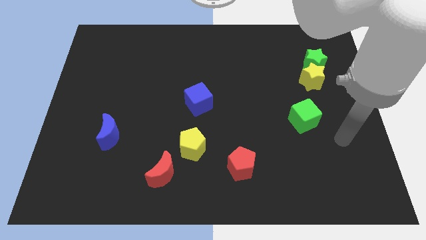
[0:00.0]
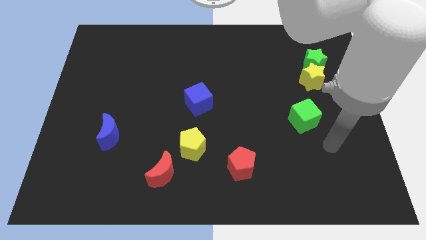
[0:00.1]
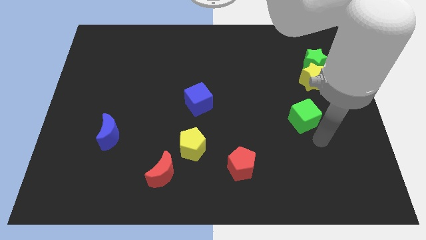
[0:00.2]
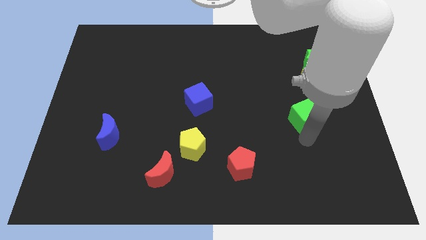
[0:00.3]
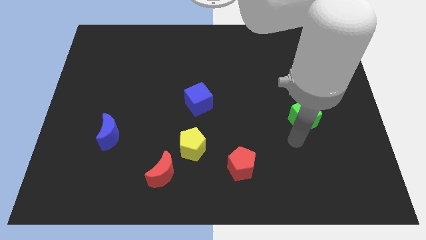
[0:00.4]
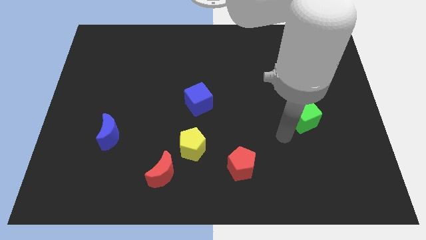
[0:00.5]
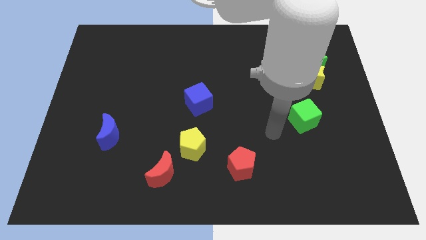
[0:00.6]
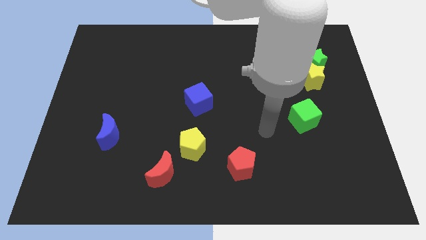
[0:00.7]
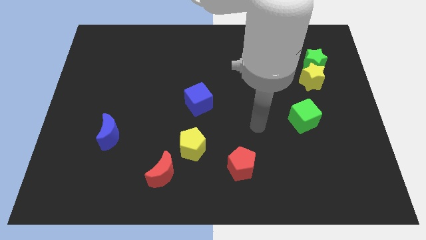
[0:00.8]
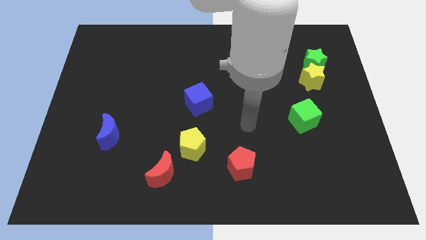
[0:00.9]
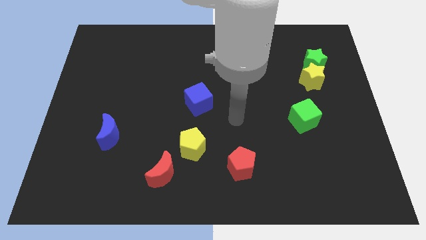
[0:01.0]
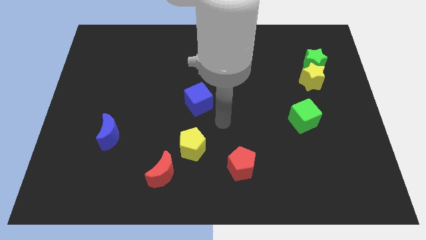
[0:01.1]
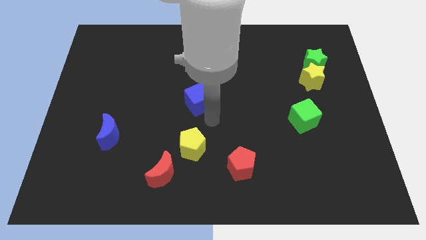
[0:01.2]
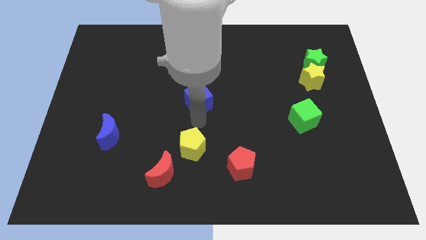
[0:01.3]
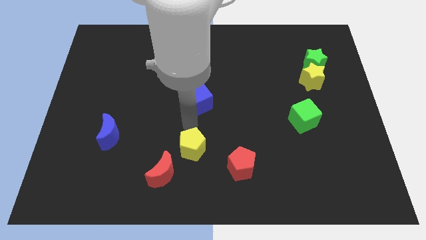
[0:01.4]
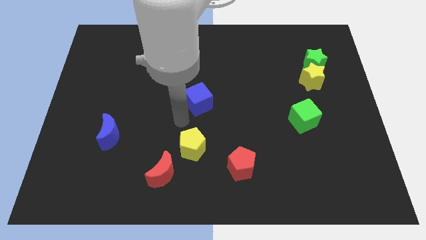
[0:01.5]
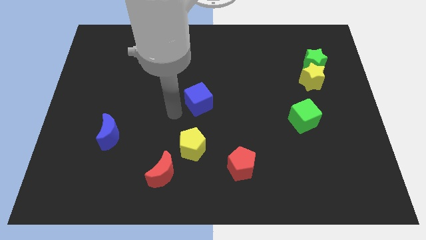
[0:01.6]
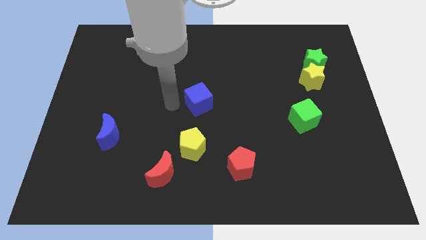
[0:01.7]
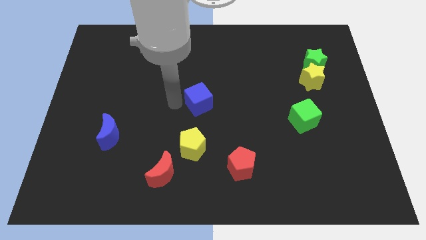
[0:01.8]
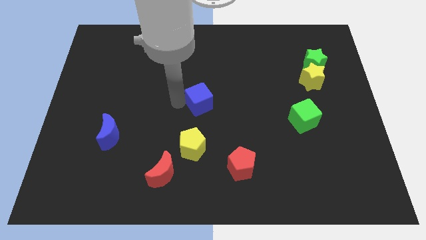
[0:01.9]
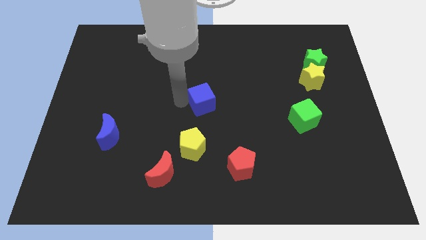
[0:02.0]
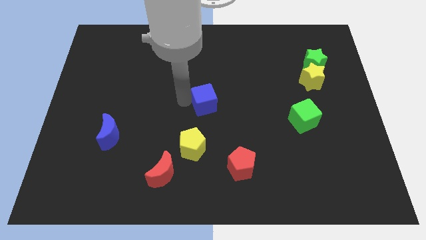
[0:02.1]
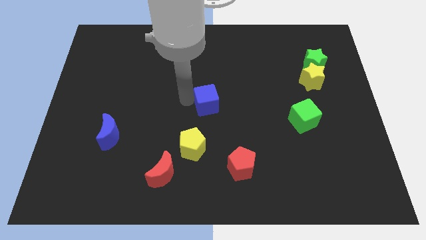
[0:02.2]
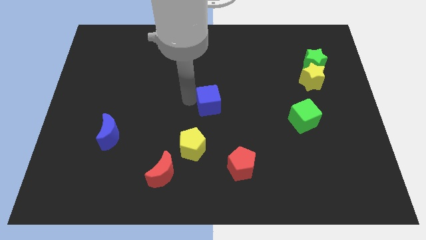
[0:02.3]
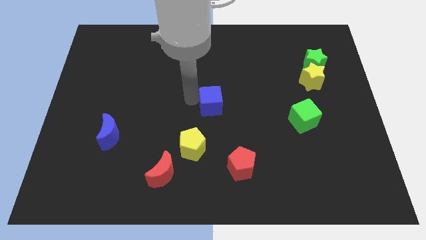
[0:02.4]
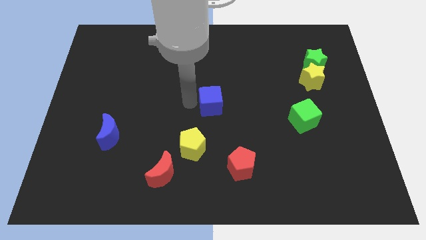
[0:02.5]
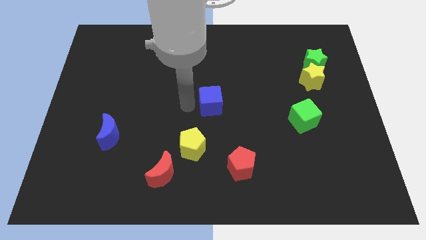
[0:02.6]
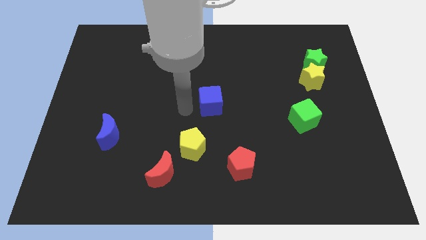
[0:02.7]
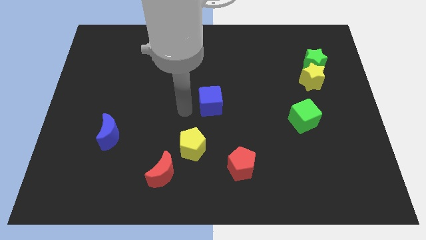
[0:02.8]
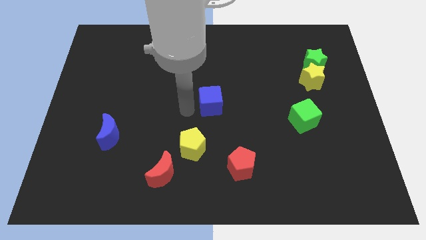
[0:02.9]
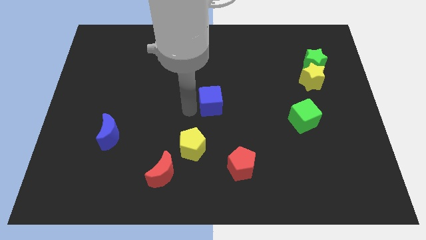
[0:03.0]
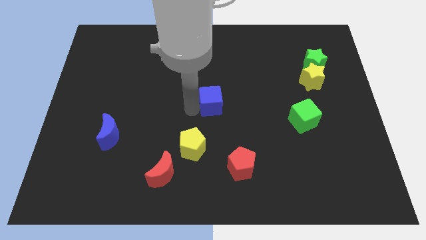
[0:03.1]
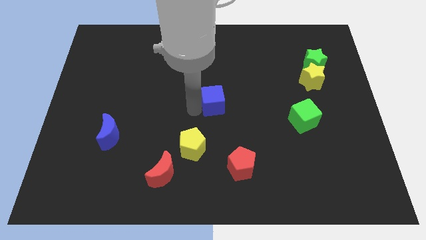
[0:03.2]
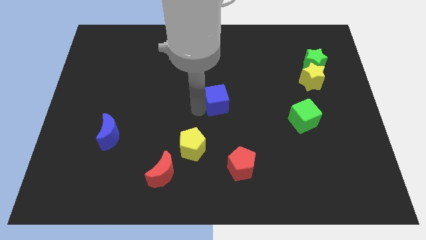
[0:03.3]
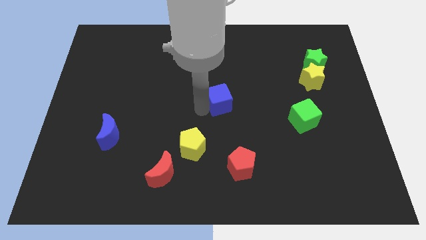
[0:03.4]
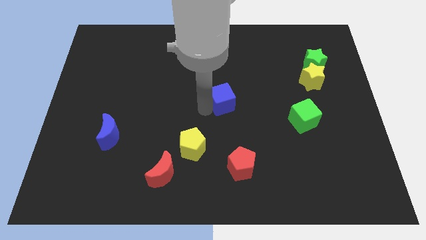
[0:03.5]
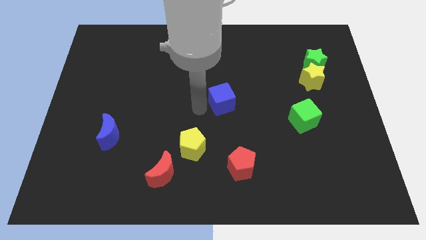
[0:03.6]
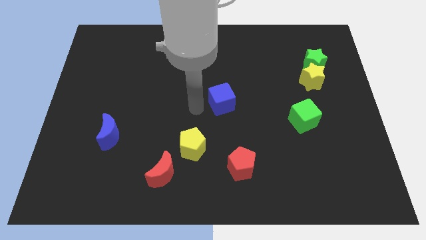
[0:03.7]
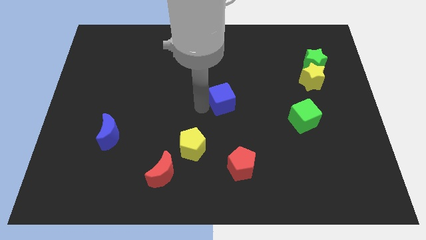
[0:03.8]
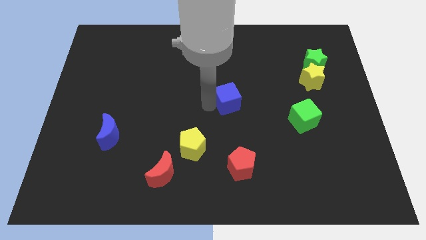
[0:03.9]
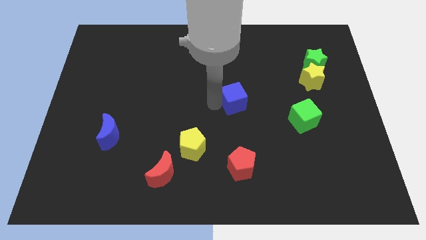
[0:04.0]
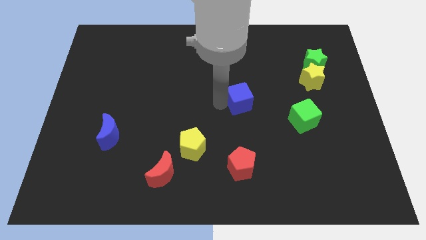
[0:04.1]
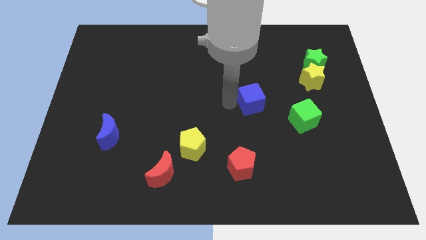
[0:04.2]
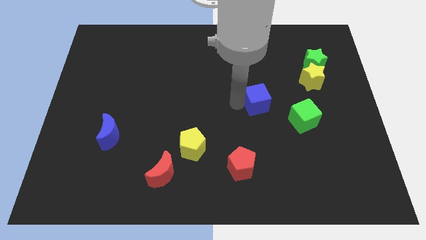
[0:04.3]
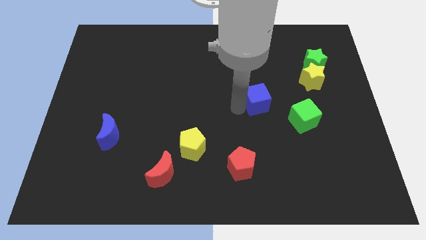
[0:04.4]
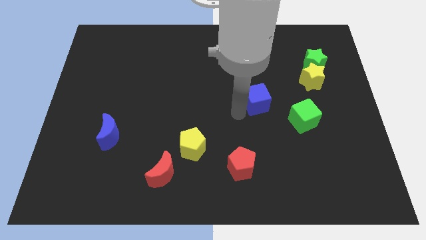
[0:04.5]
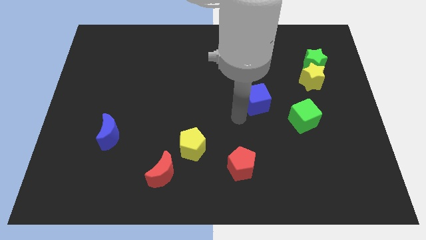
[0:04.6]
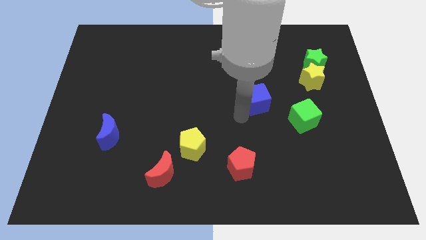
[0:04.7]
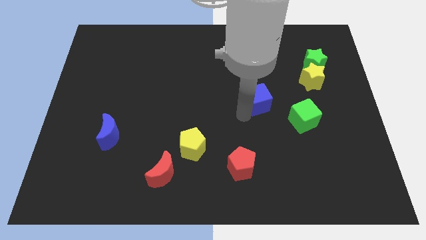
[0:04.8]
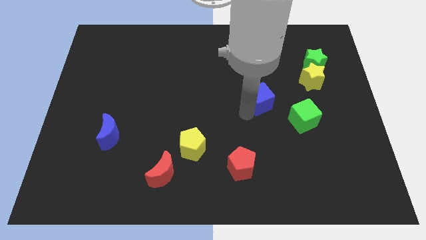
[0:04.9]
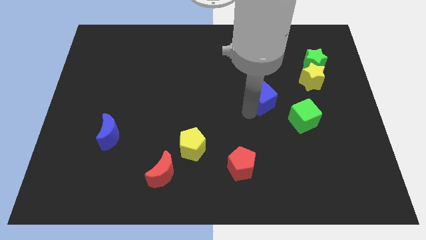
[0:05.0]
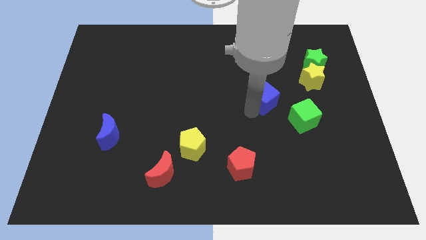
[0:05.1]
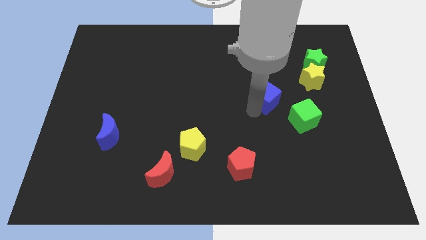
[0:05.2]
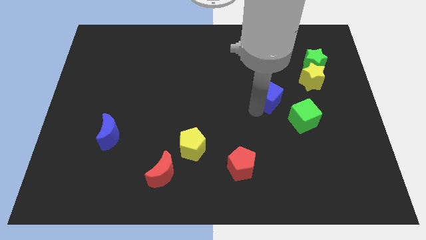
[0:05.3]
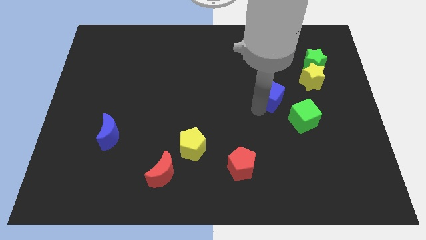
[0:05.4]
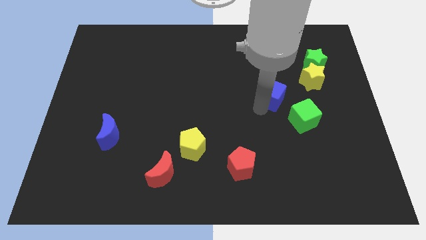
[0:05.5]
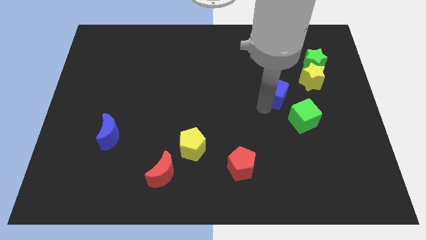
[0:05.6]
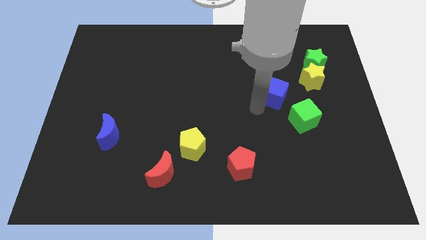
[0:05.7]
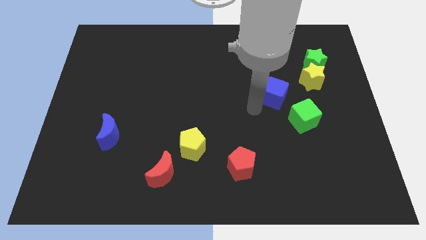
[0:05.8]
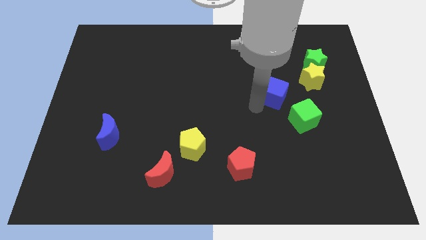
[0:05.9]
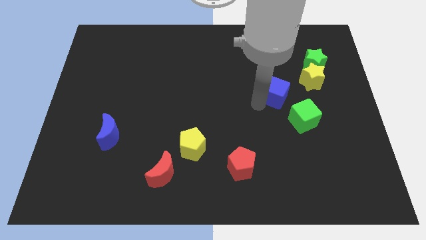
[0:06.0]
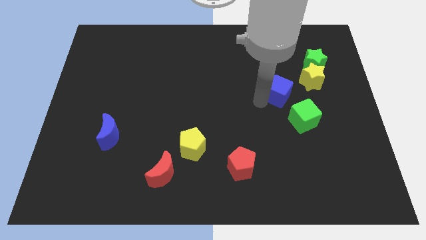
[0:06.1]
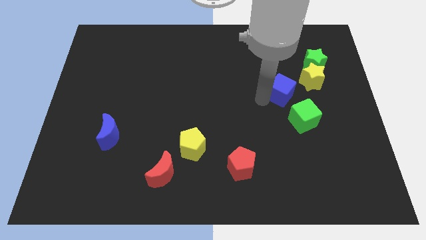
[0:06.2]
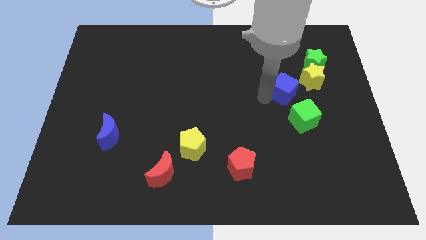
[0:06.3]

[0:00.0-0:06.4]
put the blue cube diagonally down and to the left of the green star

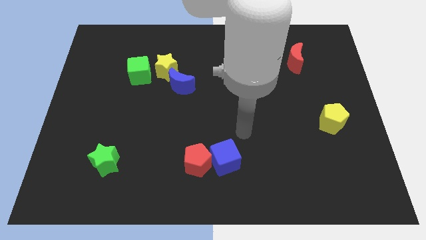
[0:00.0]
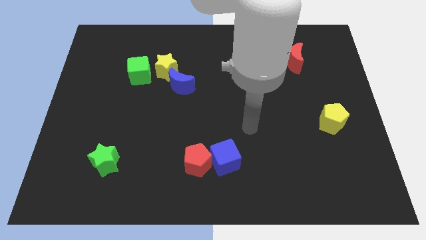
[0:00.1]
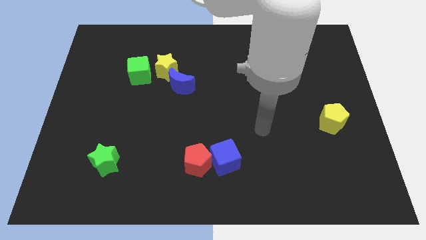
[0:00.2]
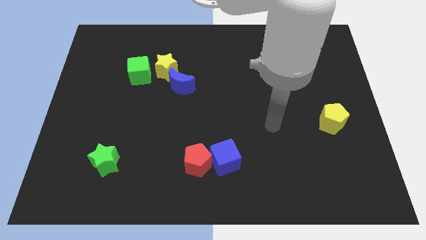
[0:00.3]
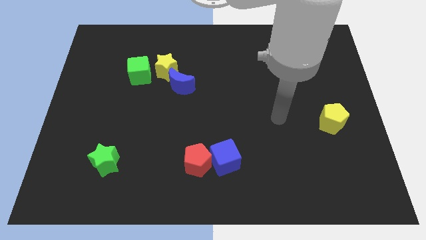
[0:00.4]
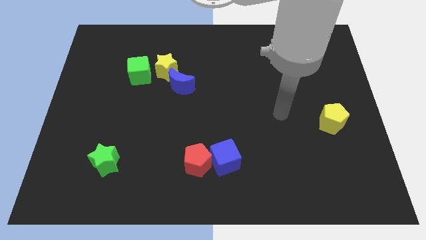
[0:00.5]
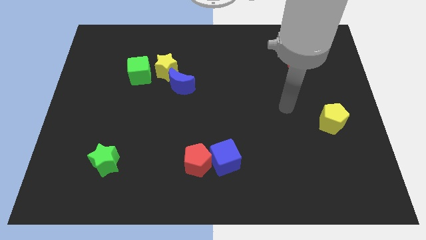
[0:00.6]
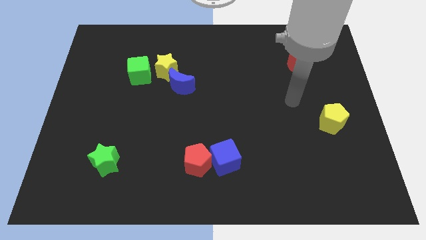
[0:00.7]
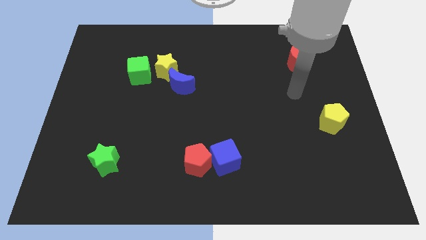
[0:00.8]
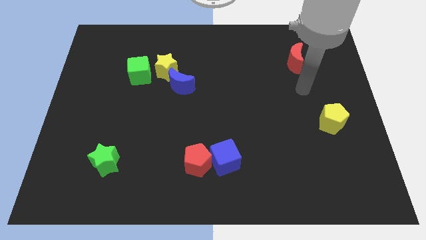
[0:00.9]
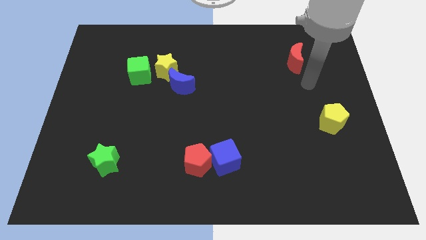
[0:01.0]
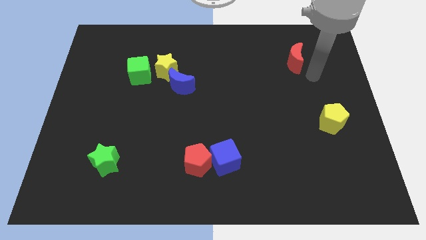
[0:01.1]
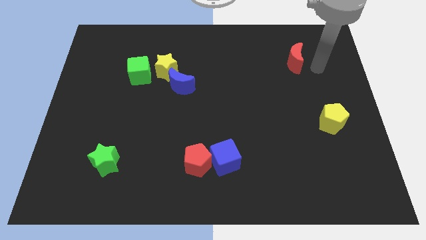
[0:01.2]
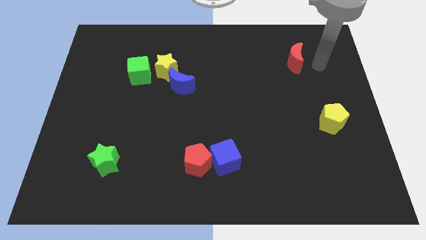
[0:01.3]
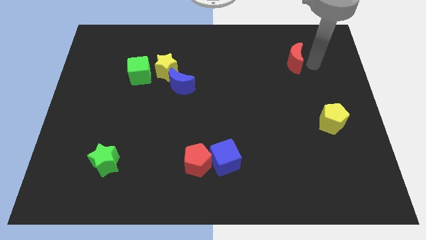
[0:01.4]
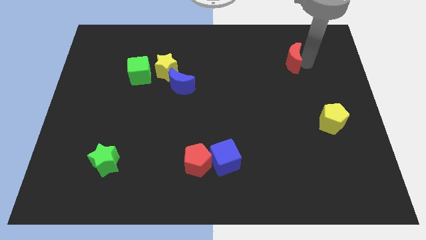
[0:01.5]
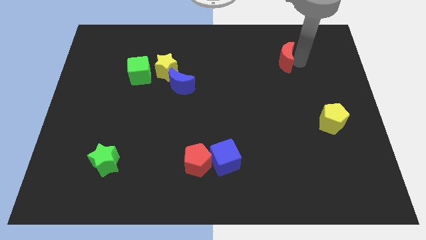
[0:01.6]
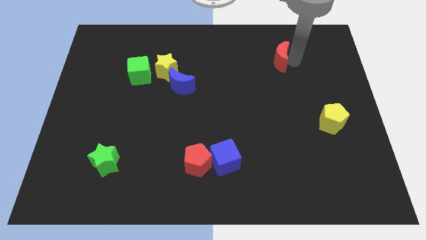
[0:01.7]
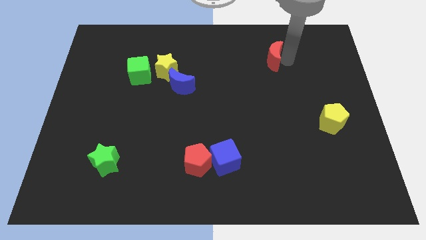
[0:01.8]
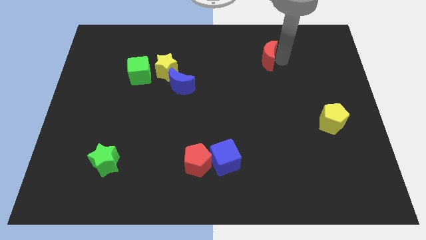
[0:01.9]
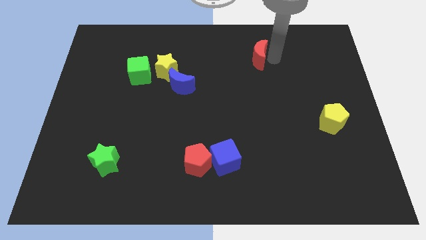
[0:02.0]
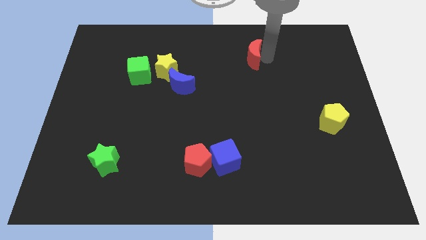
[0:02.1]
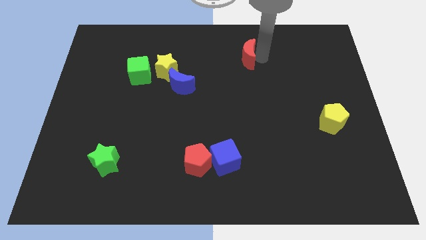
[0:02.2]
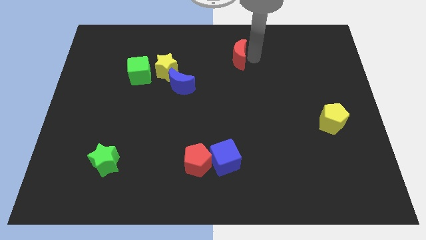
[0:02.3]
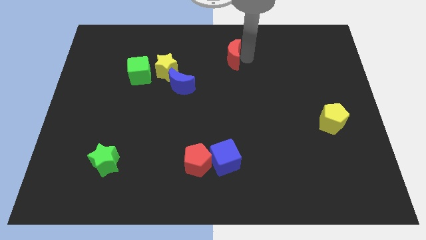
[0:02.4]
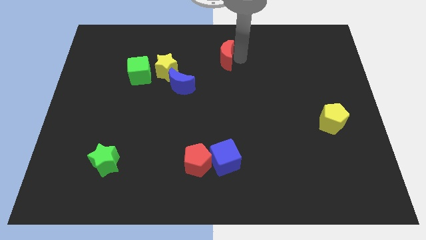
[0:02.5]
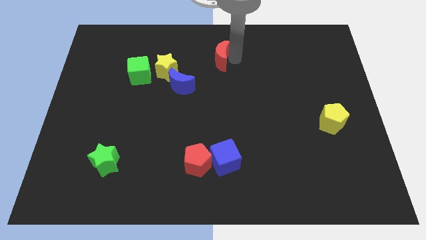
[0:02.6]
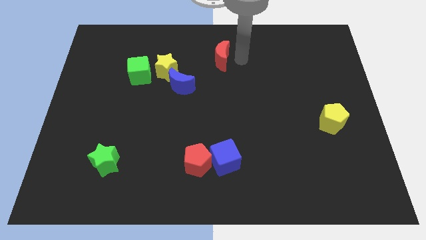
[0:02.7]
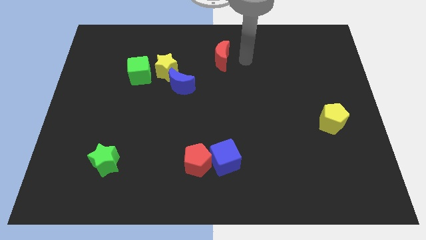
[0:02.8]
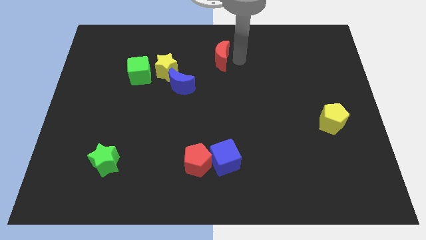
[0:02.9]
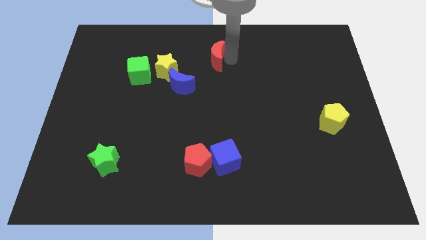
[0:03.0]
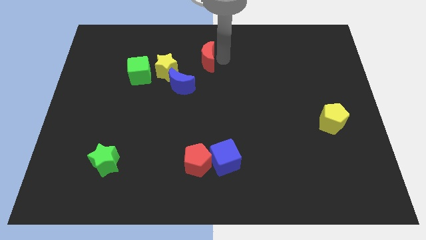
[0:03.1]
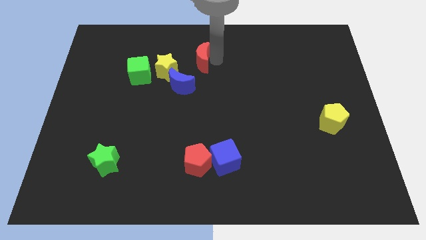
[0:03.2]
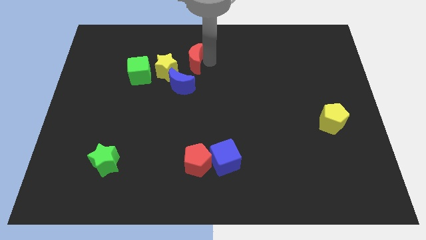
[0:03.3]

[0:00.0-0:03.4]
put the red moon above the blue moon
